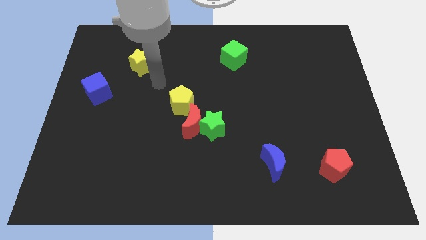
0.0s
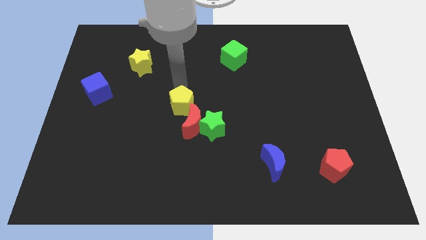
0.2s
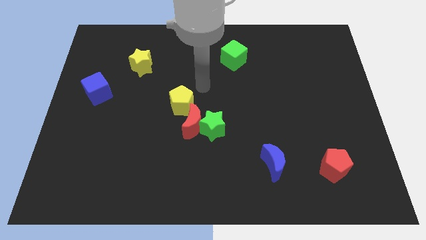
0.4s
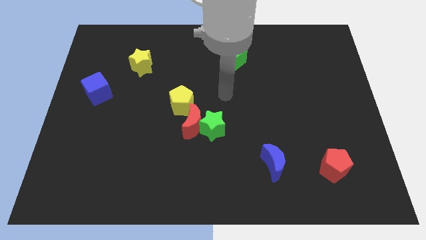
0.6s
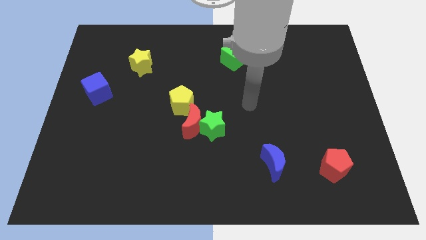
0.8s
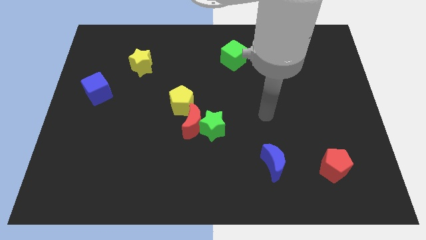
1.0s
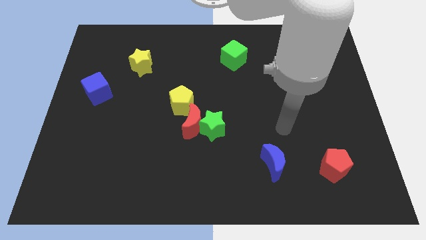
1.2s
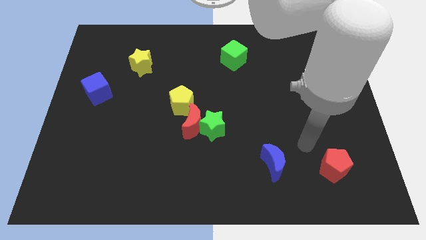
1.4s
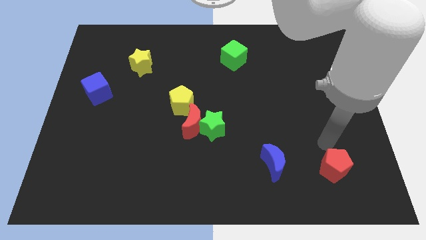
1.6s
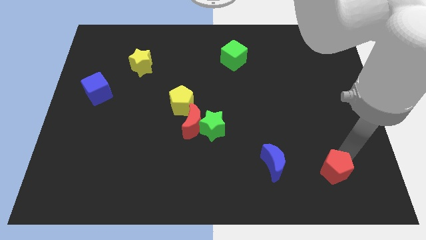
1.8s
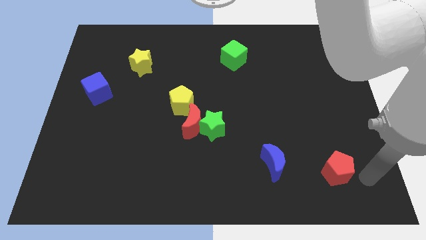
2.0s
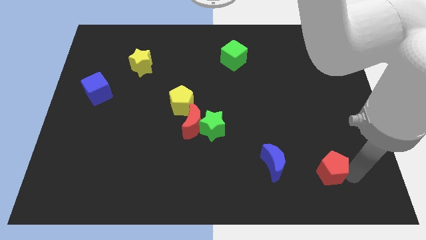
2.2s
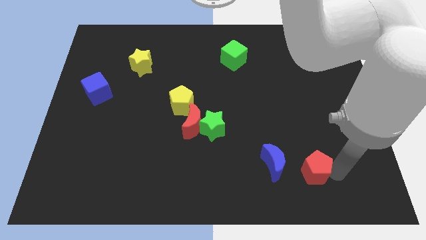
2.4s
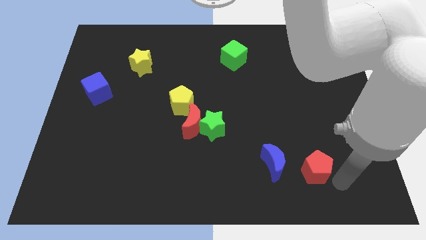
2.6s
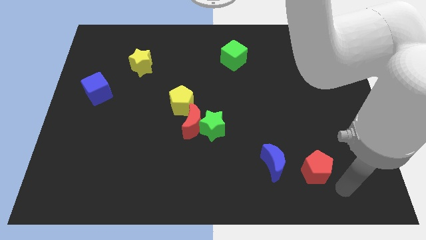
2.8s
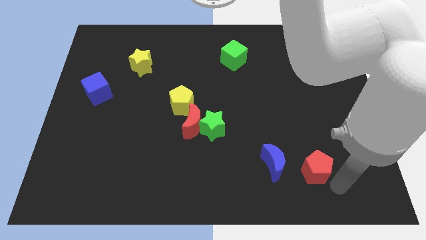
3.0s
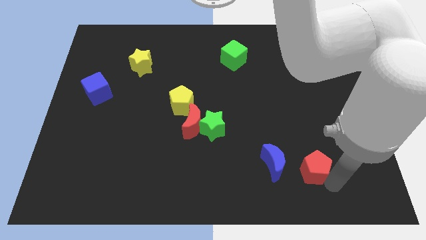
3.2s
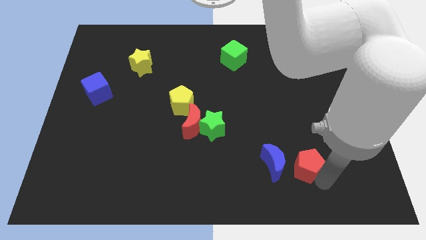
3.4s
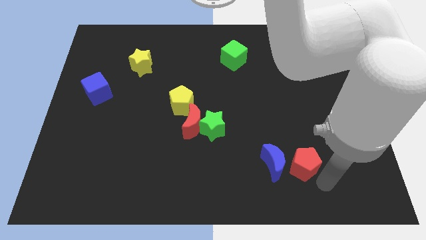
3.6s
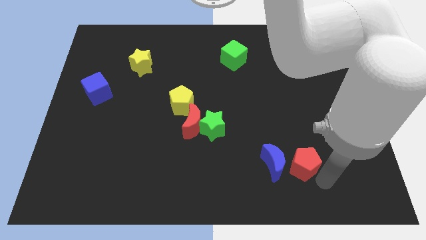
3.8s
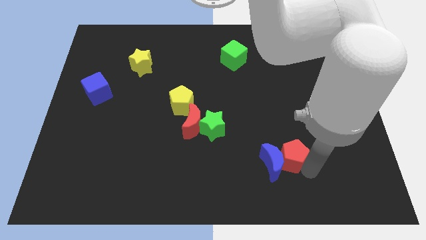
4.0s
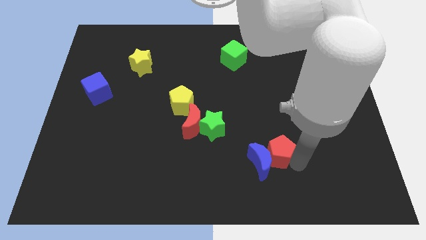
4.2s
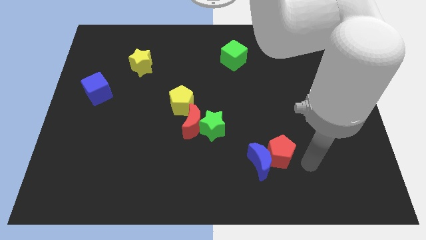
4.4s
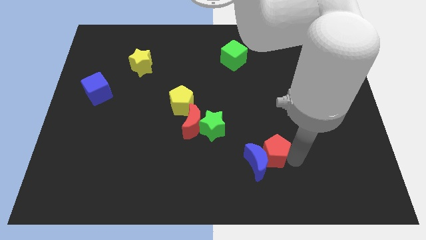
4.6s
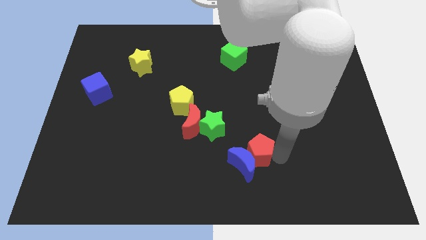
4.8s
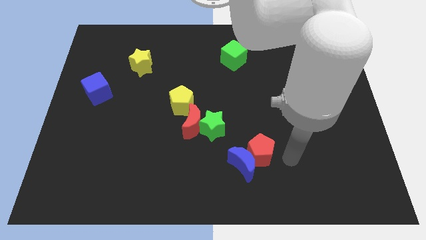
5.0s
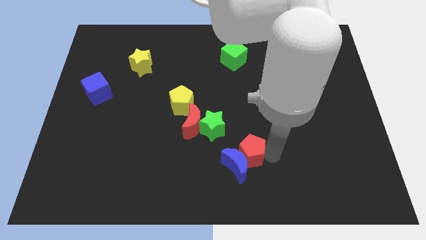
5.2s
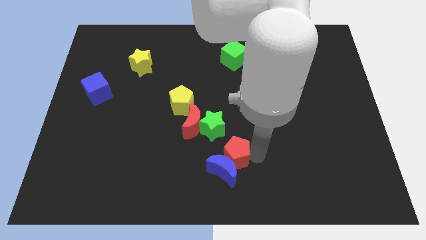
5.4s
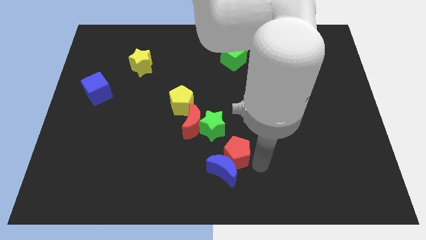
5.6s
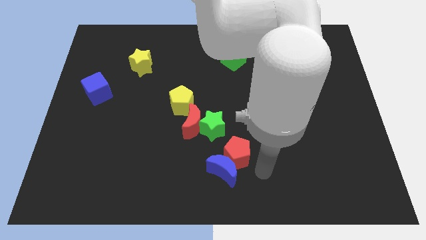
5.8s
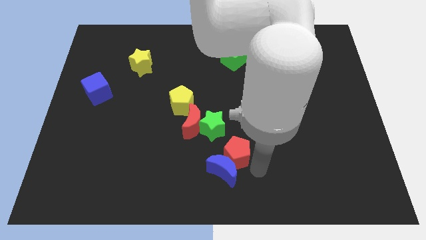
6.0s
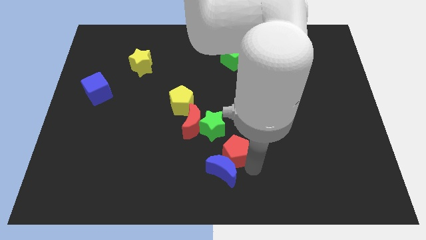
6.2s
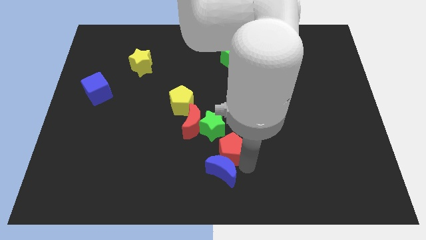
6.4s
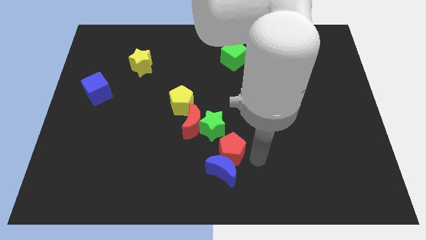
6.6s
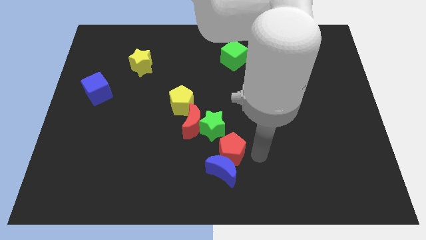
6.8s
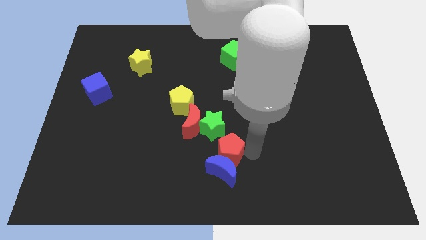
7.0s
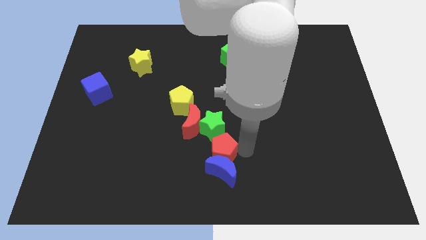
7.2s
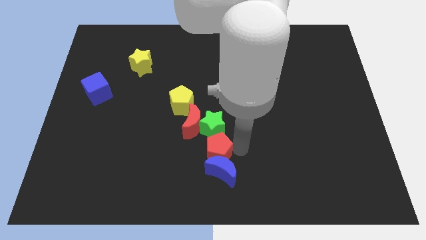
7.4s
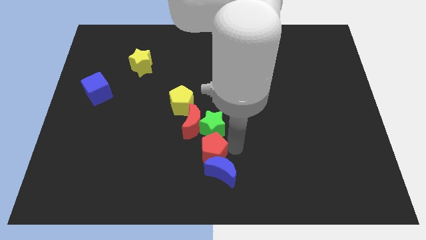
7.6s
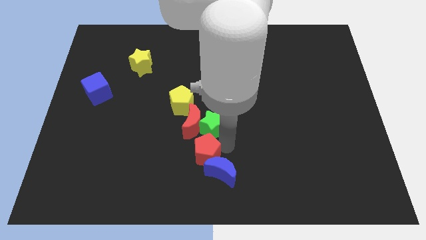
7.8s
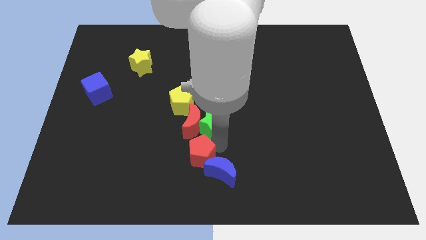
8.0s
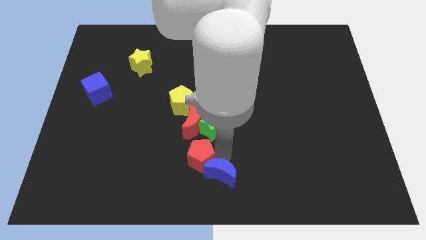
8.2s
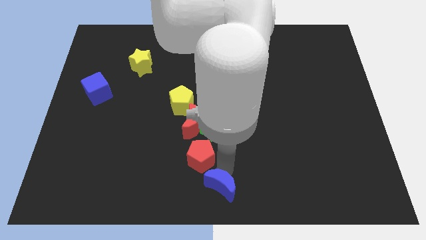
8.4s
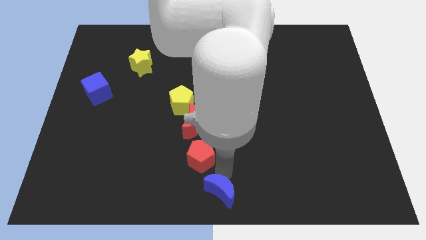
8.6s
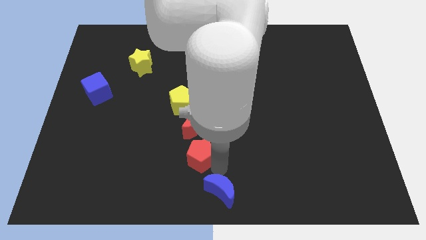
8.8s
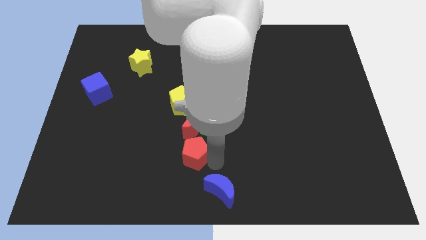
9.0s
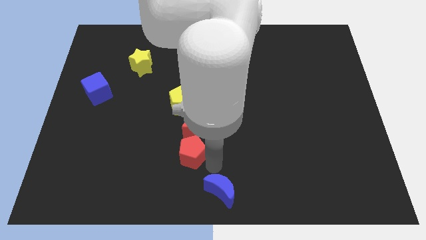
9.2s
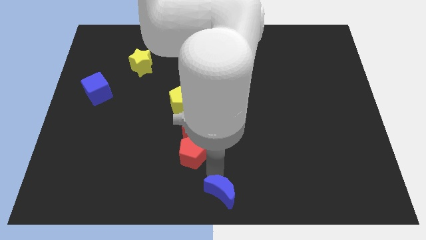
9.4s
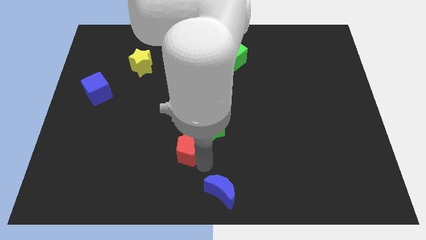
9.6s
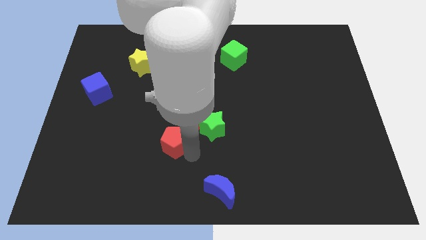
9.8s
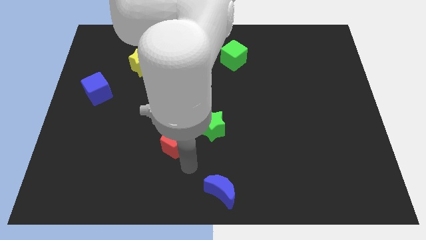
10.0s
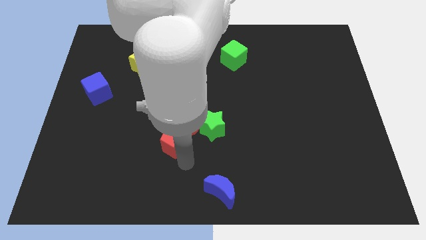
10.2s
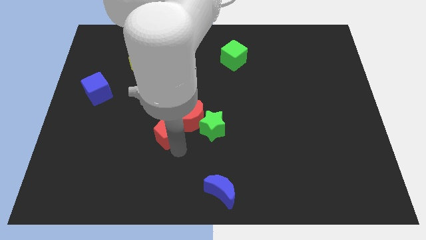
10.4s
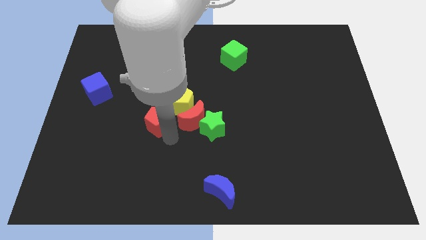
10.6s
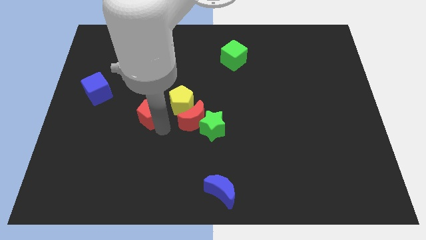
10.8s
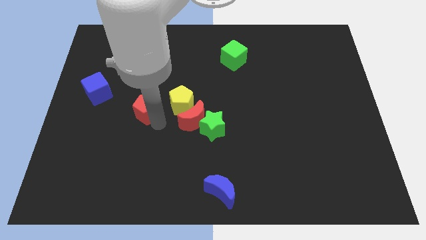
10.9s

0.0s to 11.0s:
push the red pentagon to the bottom of the yellow star

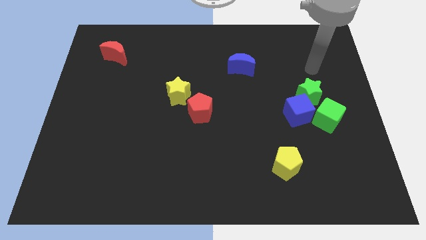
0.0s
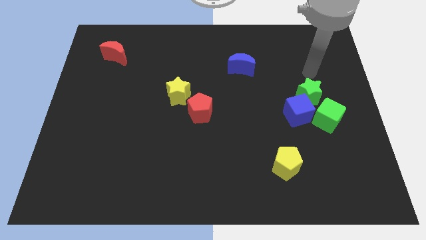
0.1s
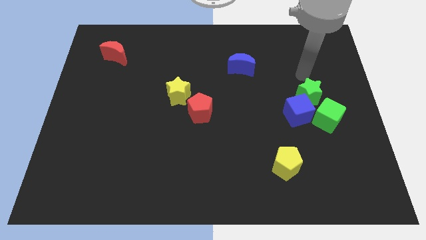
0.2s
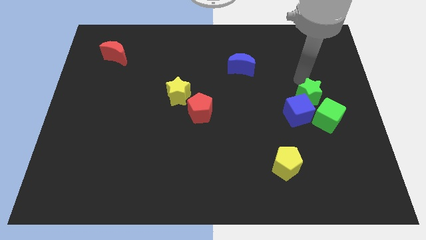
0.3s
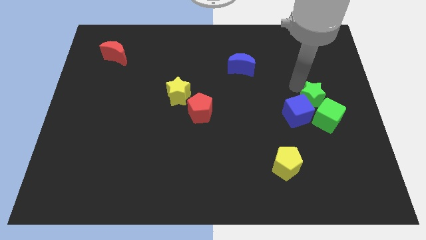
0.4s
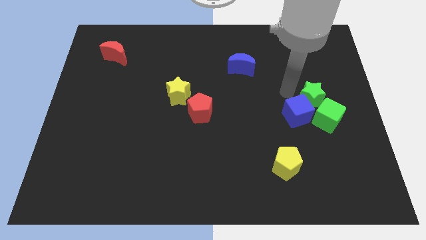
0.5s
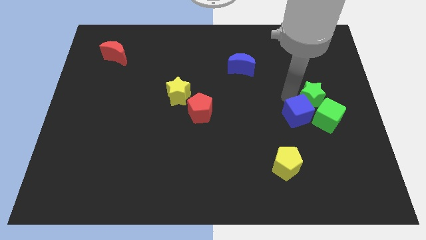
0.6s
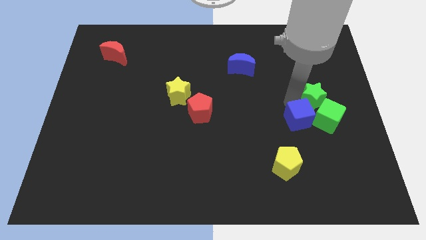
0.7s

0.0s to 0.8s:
move the blue cube diagonally down and to the left of the green cube

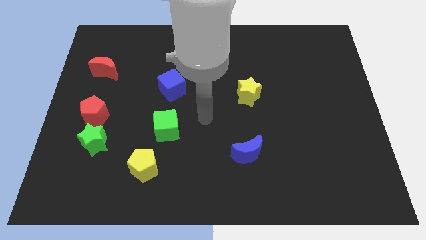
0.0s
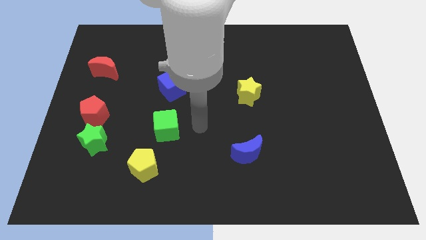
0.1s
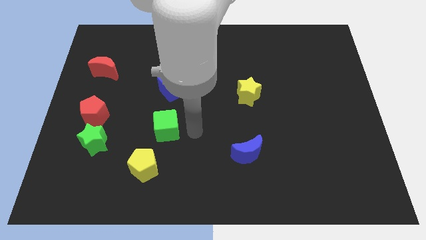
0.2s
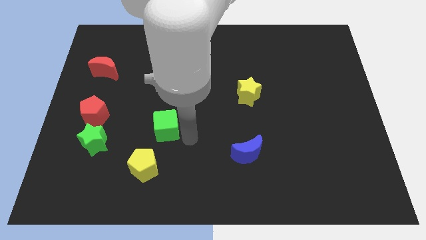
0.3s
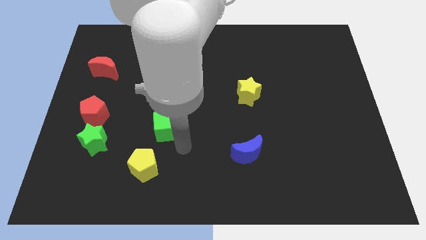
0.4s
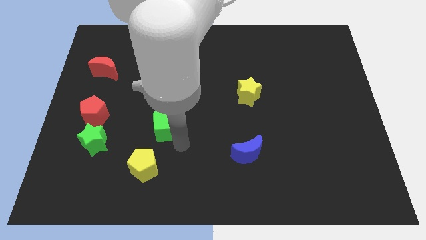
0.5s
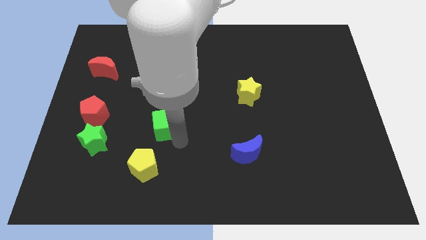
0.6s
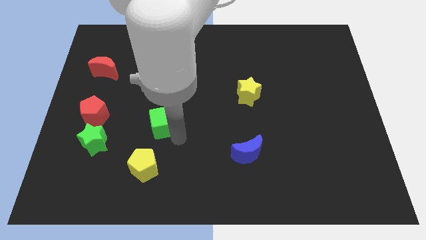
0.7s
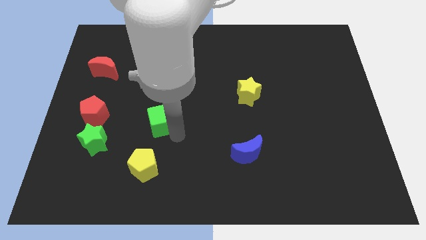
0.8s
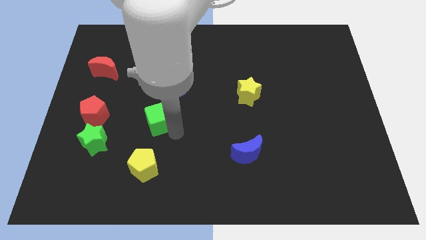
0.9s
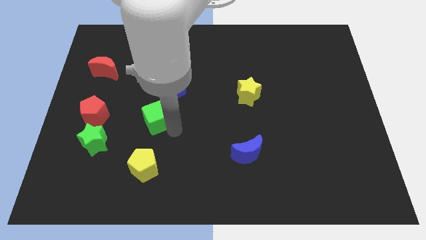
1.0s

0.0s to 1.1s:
slide the green cube to the bottom left of the blue cube
